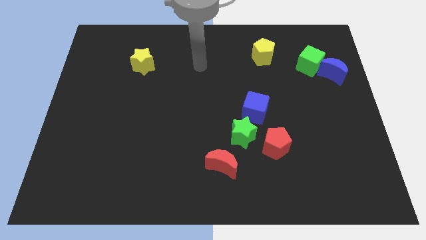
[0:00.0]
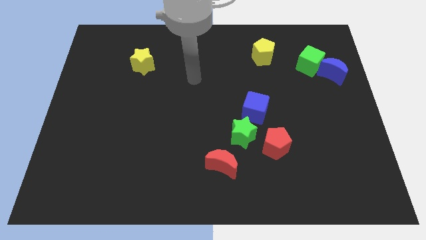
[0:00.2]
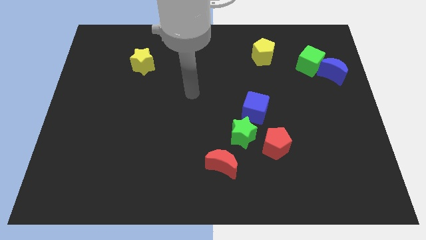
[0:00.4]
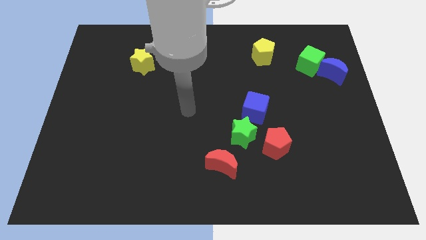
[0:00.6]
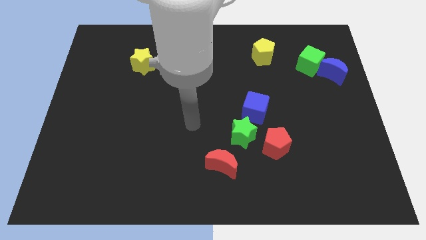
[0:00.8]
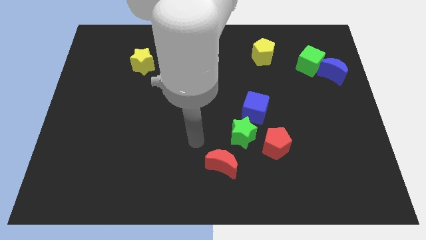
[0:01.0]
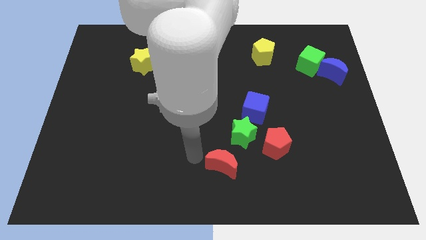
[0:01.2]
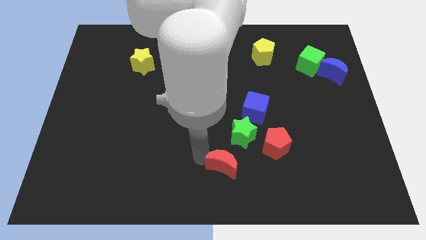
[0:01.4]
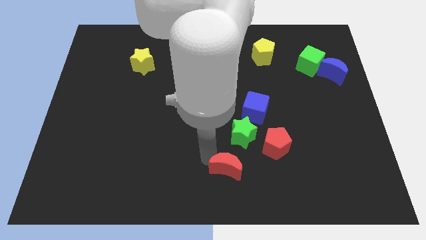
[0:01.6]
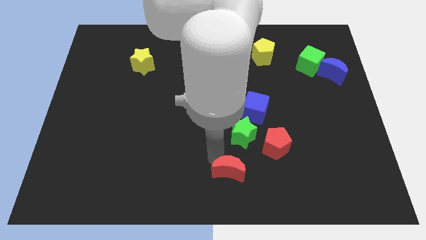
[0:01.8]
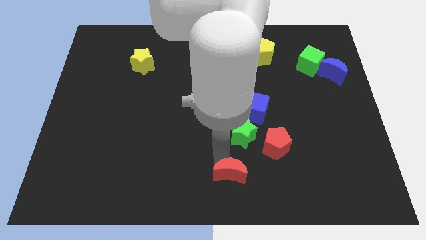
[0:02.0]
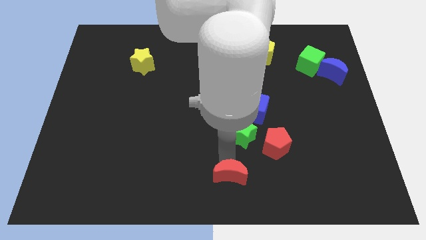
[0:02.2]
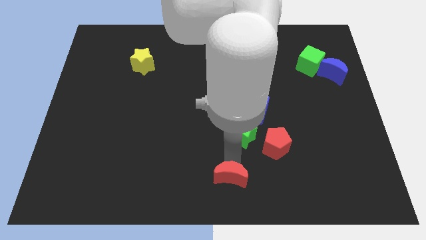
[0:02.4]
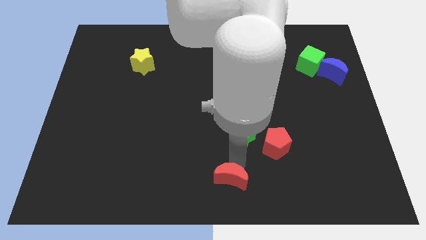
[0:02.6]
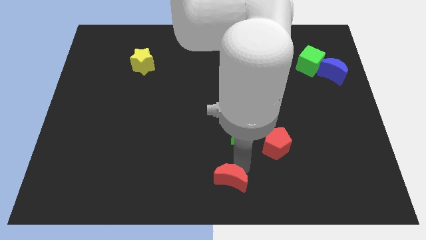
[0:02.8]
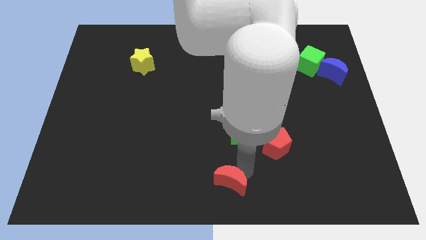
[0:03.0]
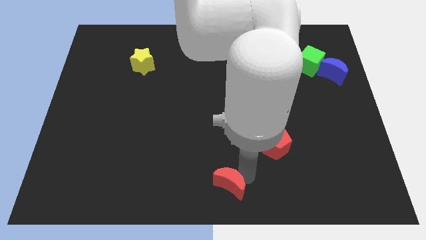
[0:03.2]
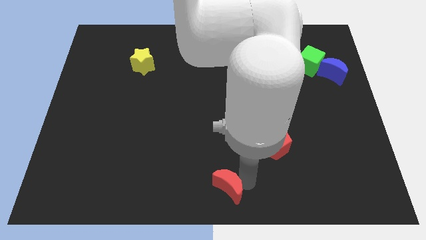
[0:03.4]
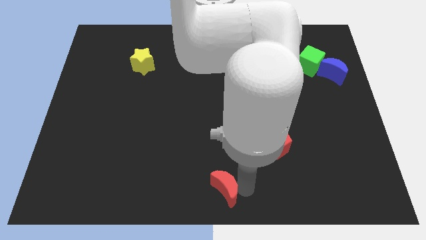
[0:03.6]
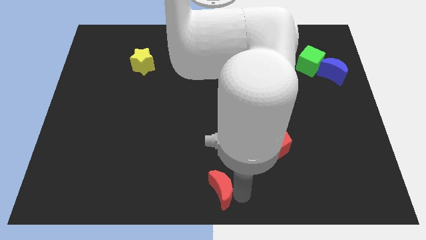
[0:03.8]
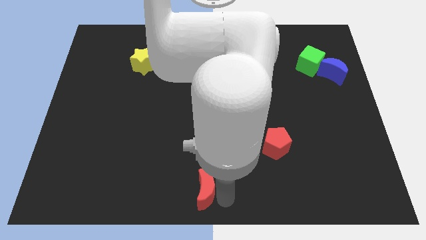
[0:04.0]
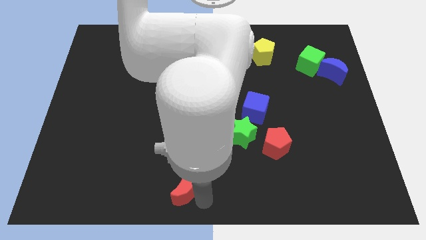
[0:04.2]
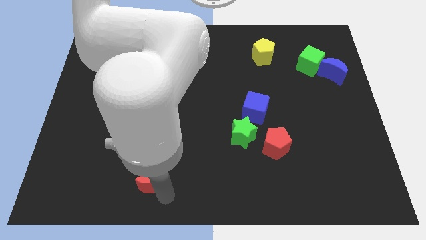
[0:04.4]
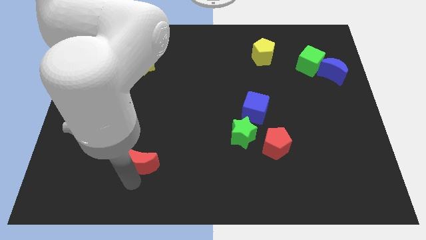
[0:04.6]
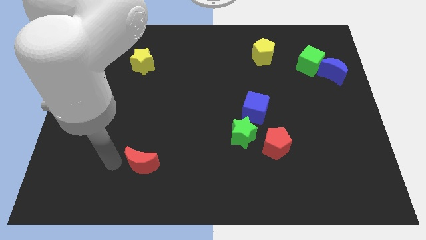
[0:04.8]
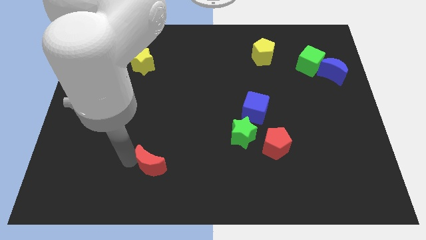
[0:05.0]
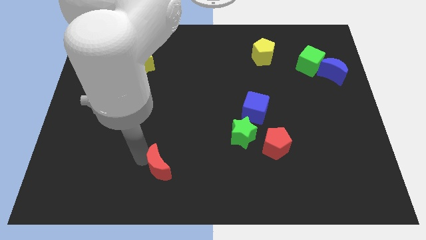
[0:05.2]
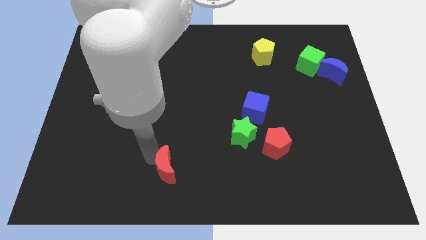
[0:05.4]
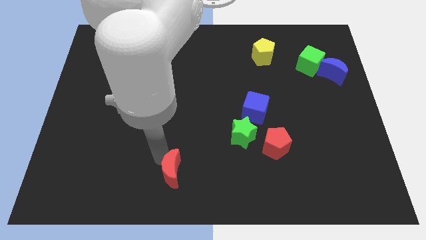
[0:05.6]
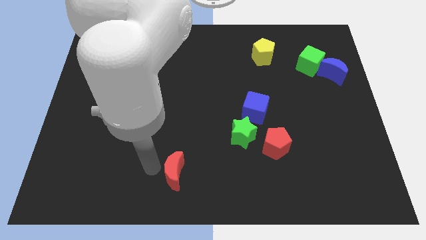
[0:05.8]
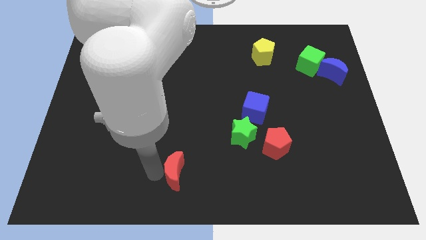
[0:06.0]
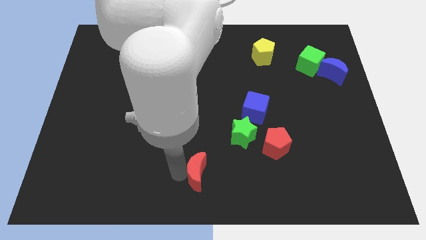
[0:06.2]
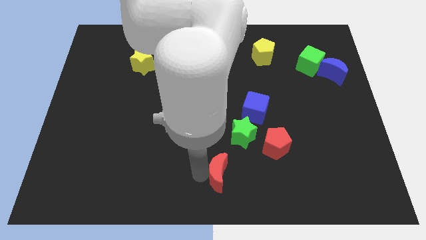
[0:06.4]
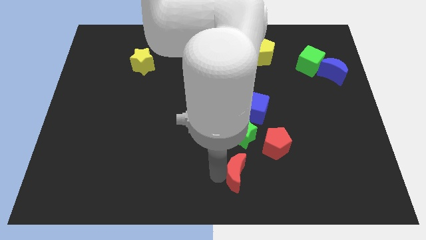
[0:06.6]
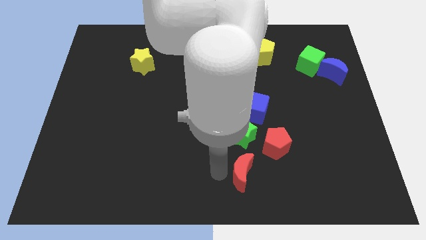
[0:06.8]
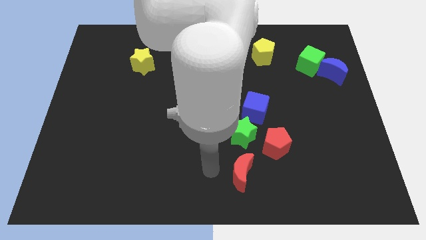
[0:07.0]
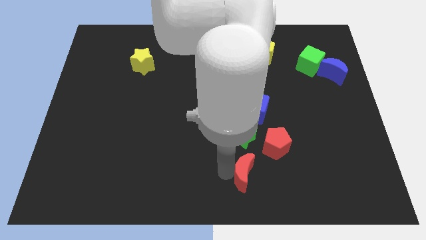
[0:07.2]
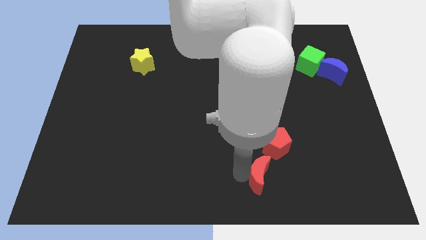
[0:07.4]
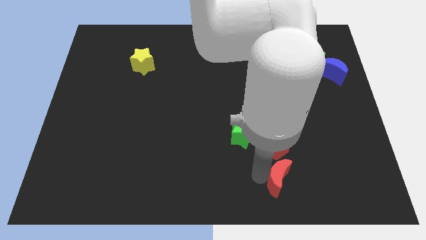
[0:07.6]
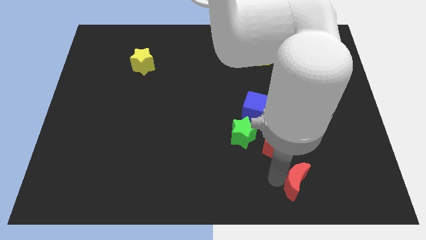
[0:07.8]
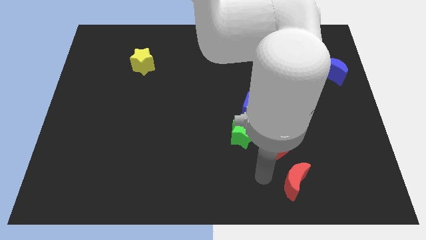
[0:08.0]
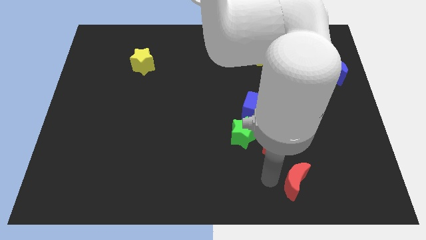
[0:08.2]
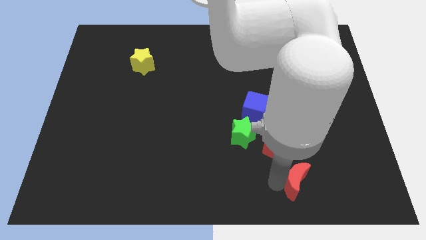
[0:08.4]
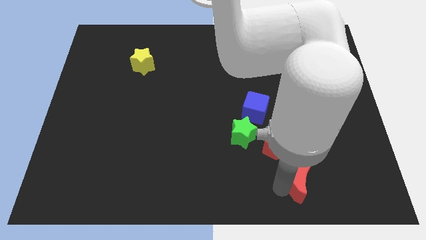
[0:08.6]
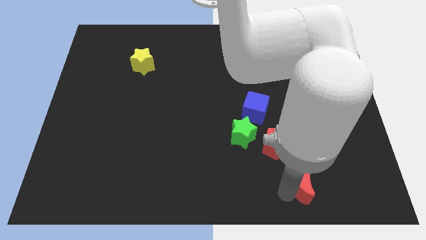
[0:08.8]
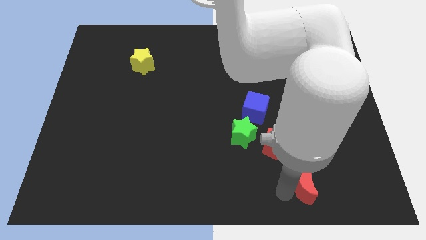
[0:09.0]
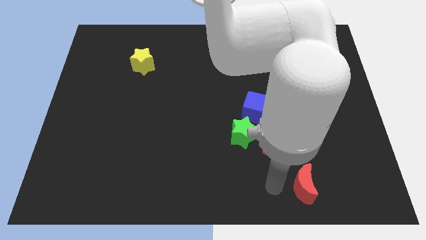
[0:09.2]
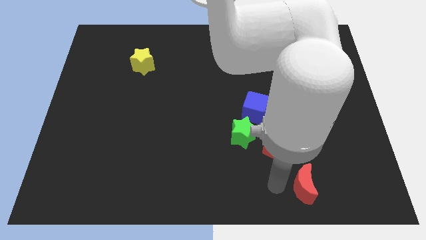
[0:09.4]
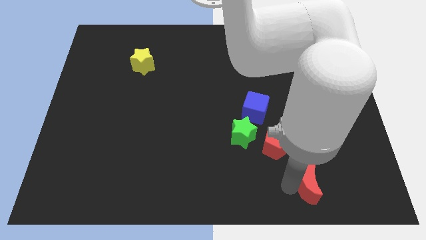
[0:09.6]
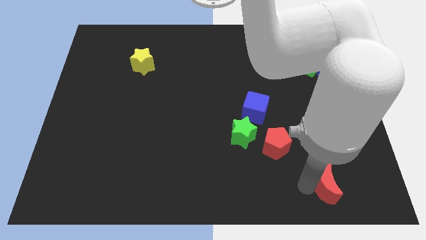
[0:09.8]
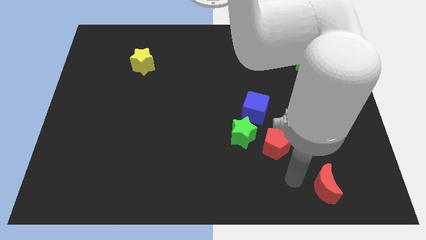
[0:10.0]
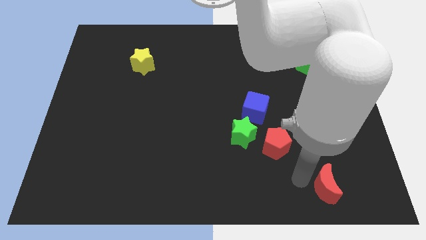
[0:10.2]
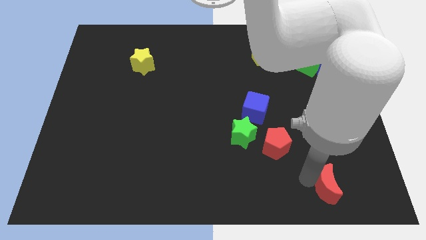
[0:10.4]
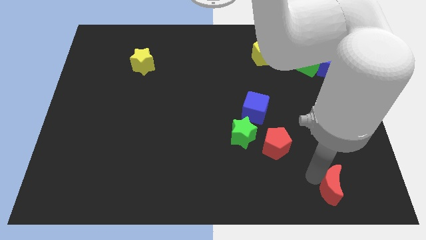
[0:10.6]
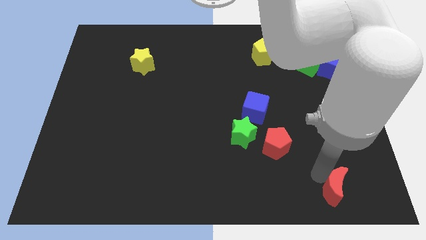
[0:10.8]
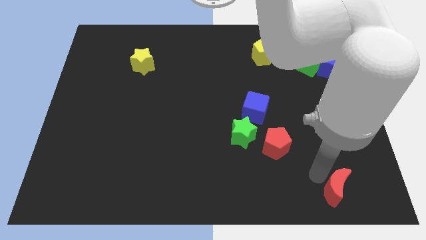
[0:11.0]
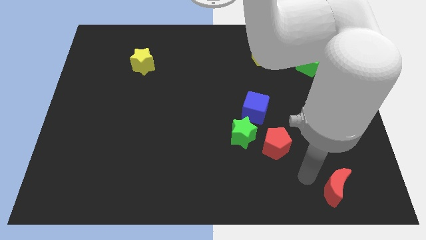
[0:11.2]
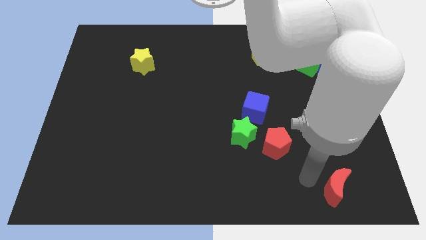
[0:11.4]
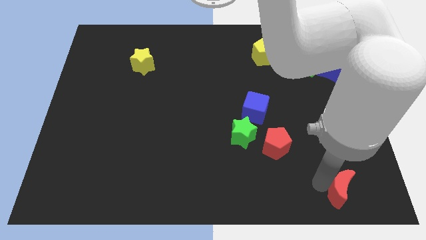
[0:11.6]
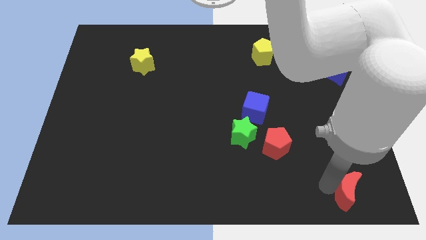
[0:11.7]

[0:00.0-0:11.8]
push the red moon to the bottom right corner

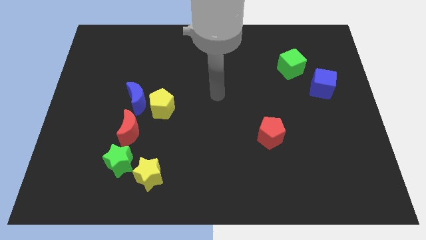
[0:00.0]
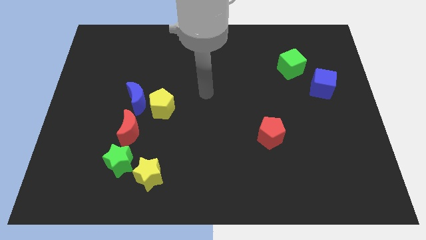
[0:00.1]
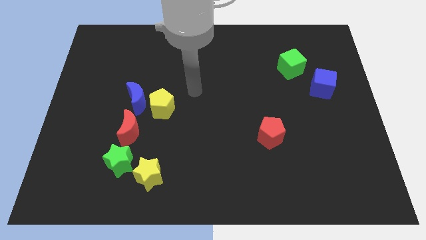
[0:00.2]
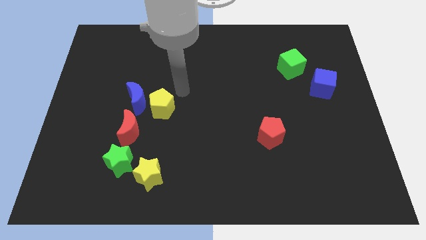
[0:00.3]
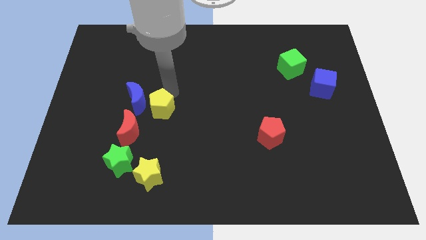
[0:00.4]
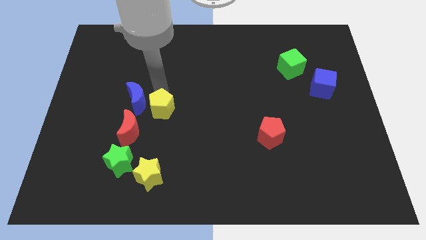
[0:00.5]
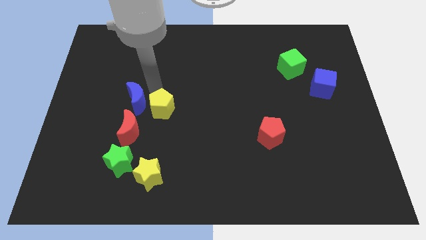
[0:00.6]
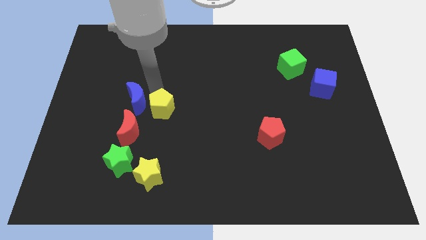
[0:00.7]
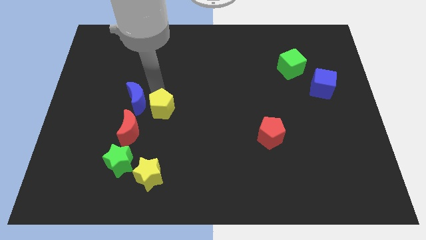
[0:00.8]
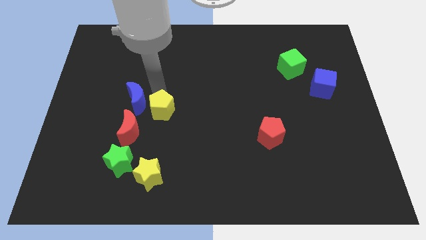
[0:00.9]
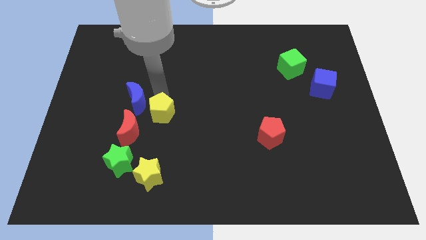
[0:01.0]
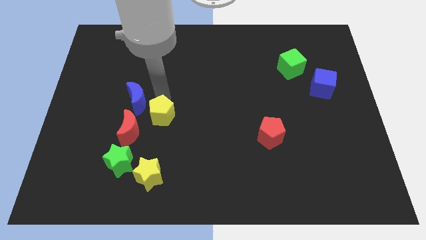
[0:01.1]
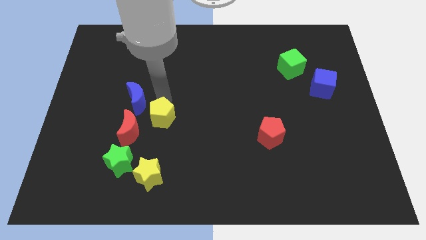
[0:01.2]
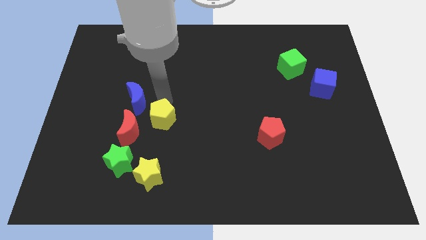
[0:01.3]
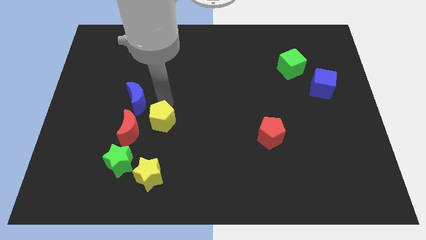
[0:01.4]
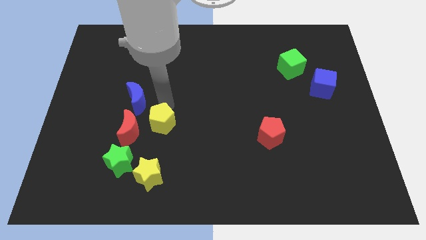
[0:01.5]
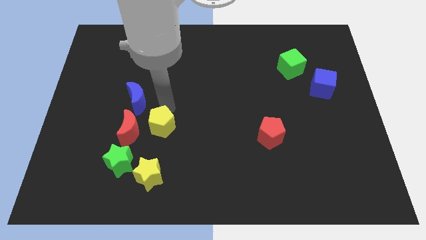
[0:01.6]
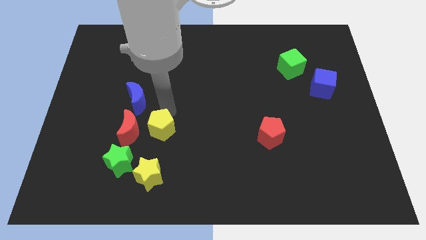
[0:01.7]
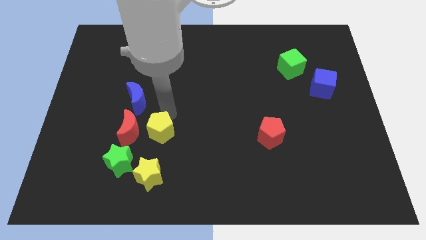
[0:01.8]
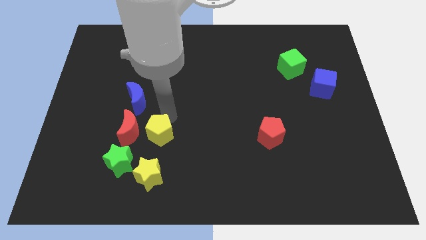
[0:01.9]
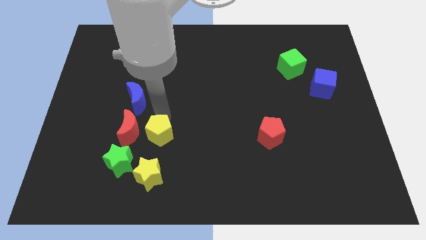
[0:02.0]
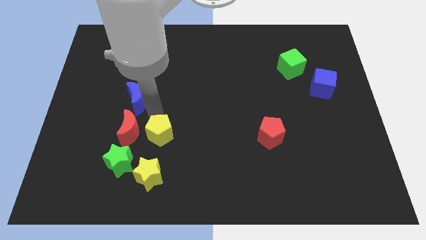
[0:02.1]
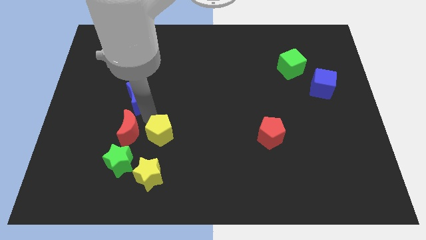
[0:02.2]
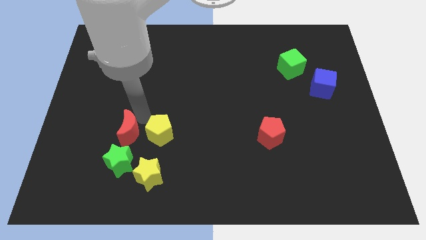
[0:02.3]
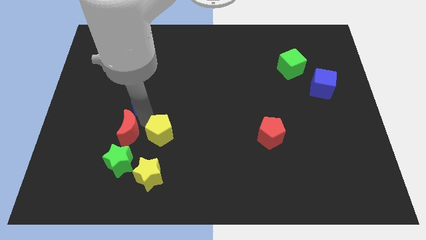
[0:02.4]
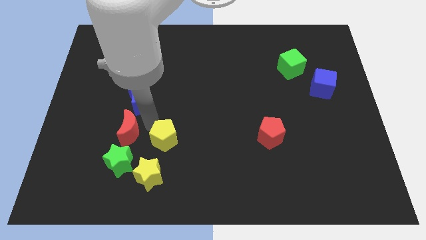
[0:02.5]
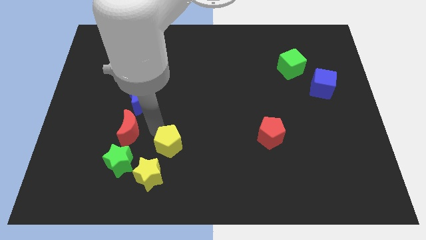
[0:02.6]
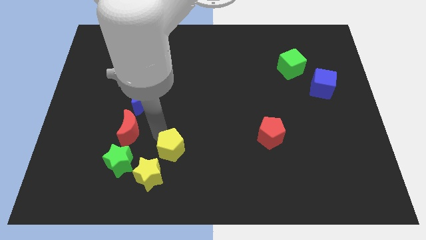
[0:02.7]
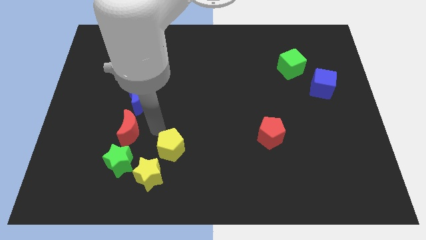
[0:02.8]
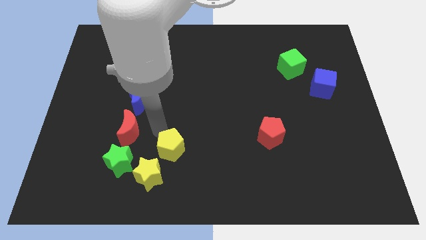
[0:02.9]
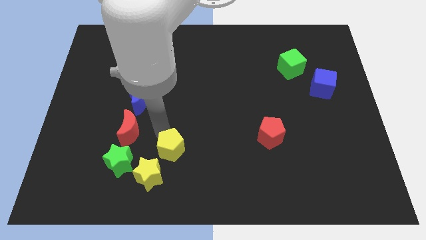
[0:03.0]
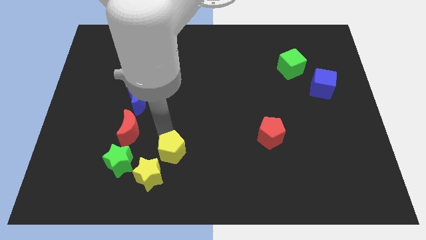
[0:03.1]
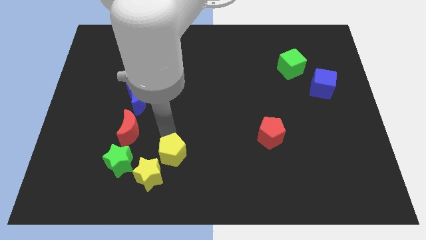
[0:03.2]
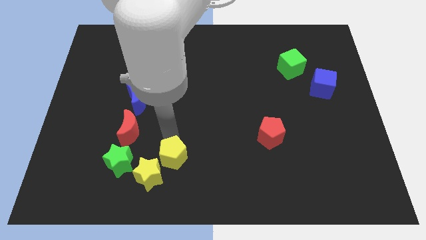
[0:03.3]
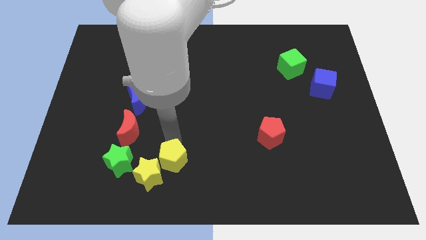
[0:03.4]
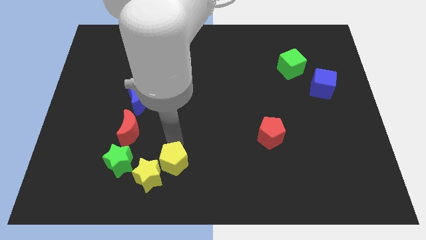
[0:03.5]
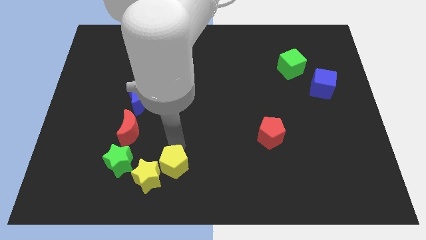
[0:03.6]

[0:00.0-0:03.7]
put the yellow pentagon to the bottom
